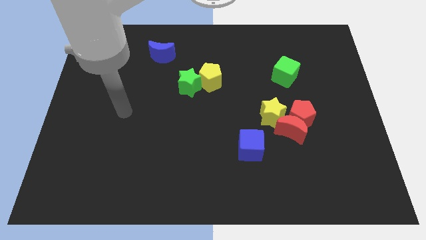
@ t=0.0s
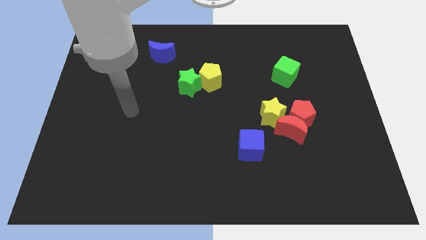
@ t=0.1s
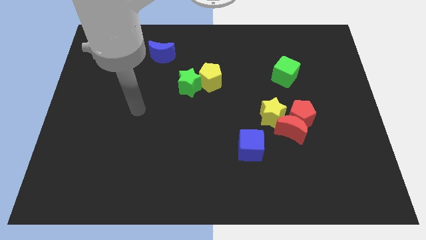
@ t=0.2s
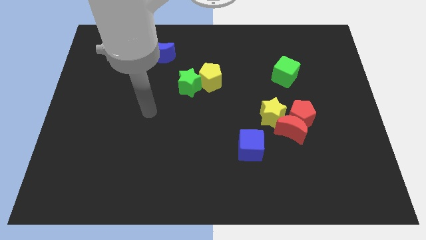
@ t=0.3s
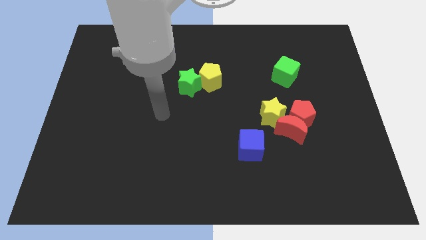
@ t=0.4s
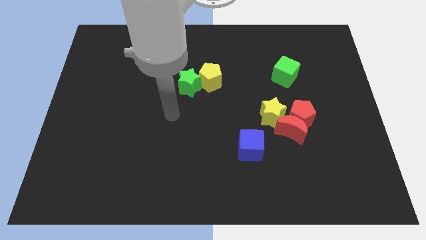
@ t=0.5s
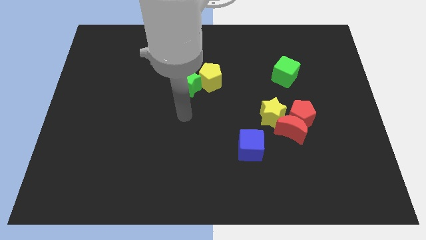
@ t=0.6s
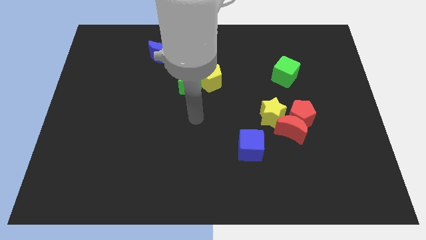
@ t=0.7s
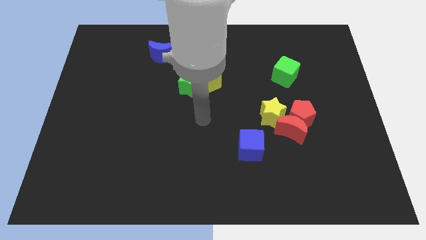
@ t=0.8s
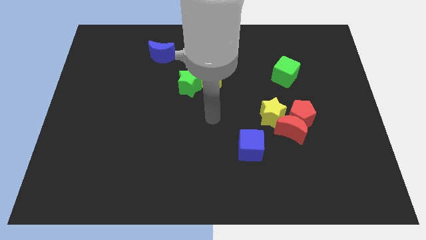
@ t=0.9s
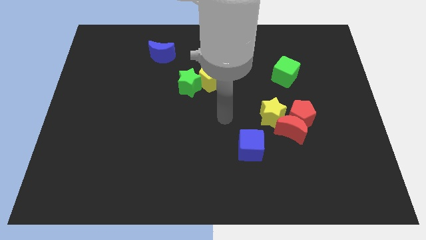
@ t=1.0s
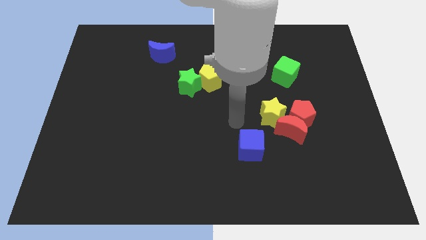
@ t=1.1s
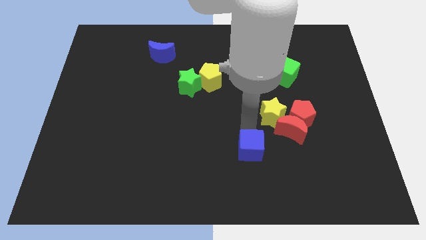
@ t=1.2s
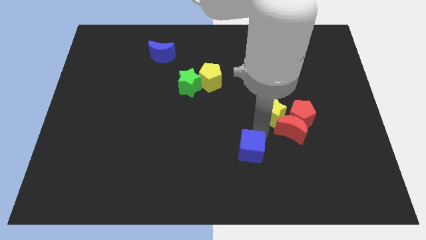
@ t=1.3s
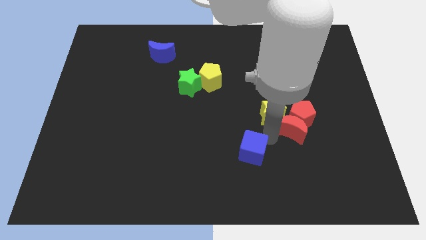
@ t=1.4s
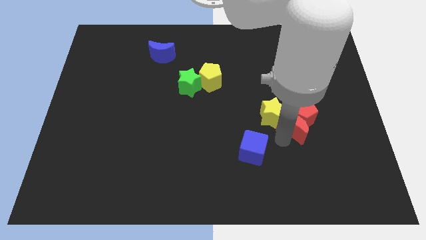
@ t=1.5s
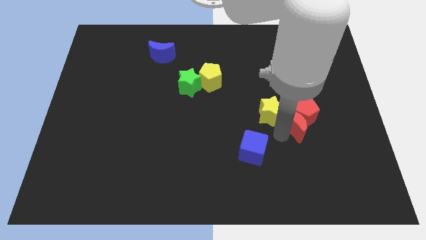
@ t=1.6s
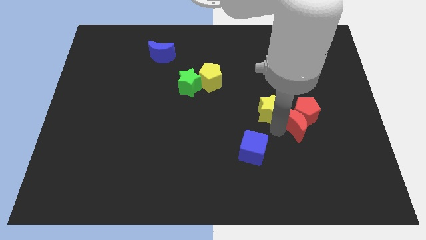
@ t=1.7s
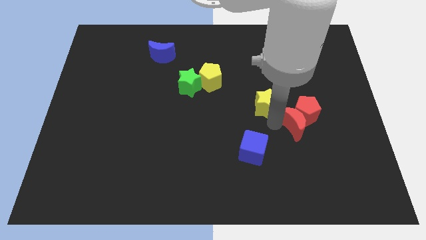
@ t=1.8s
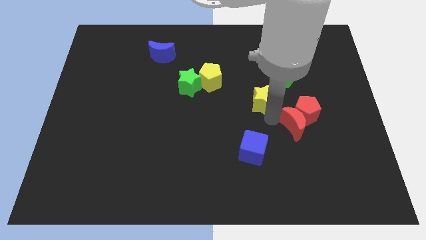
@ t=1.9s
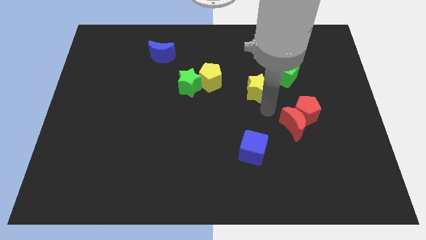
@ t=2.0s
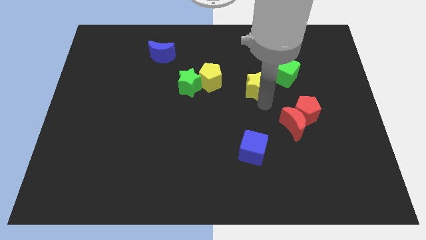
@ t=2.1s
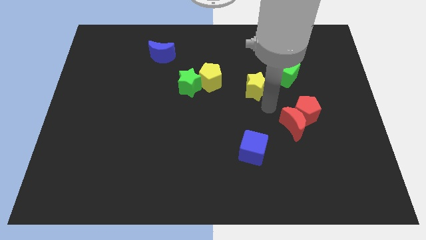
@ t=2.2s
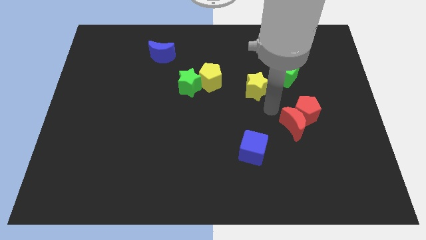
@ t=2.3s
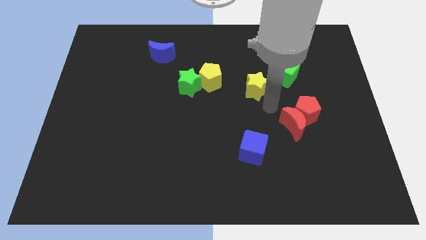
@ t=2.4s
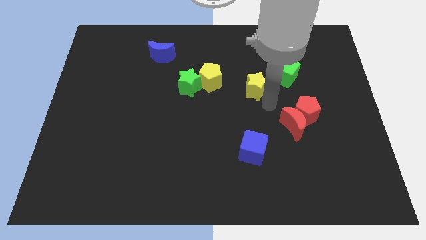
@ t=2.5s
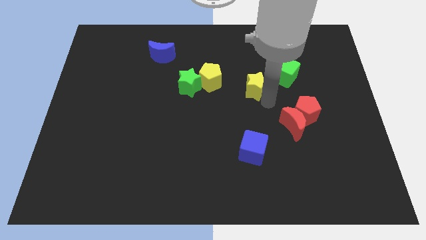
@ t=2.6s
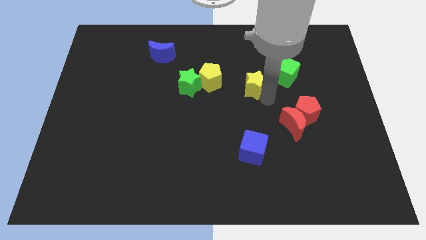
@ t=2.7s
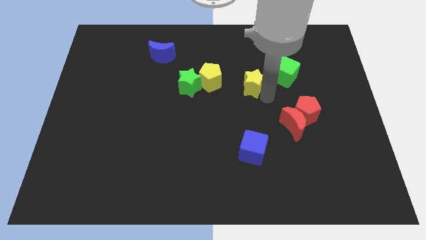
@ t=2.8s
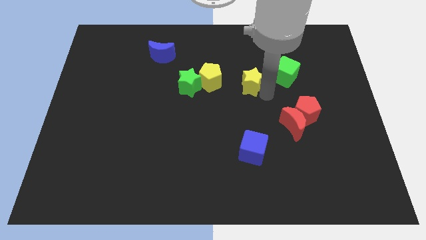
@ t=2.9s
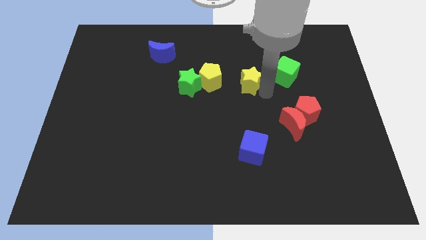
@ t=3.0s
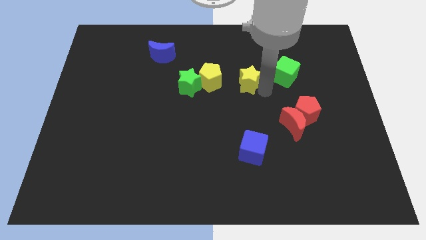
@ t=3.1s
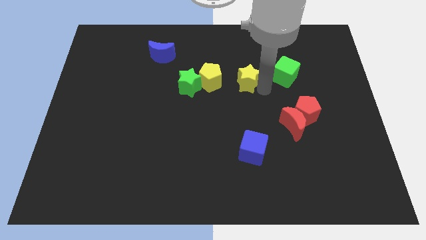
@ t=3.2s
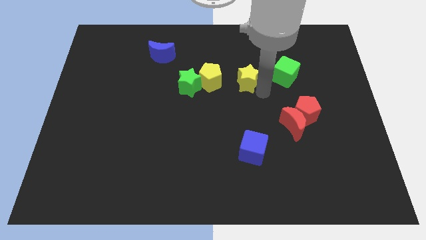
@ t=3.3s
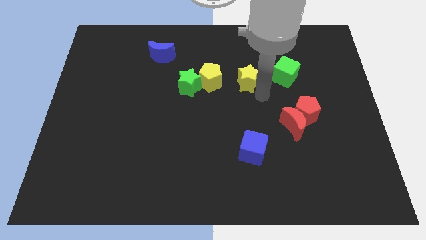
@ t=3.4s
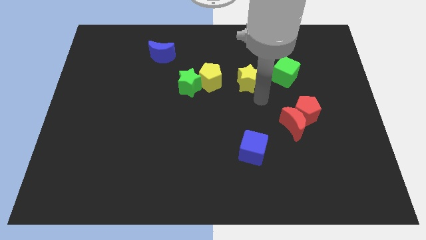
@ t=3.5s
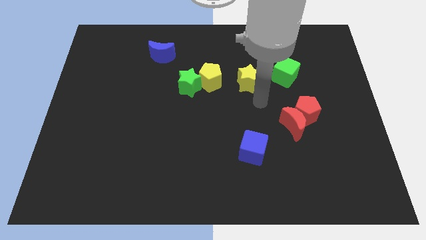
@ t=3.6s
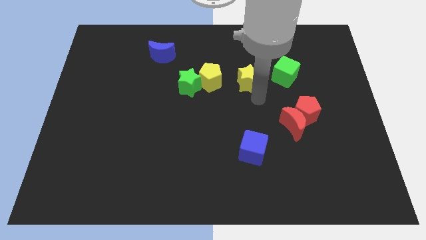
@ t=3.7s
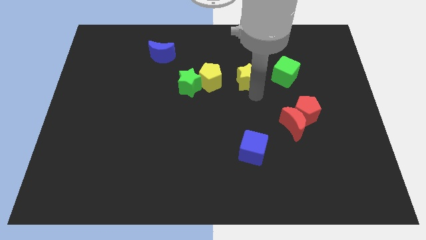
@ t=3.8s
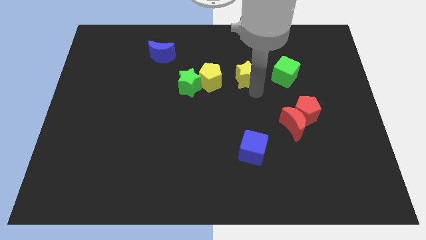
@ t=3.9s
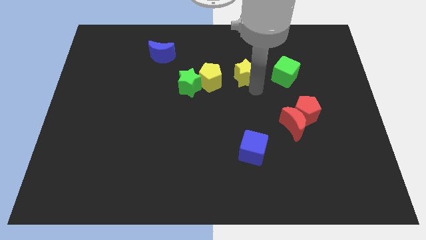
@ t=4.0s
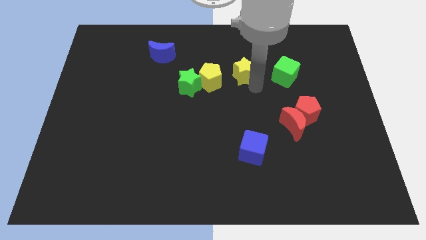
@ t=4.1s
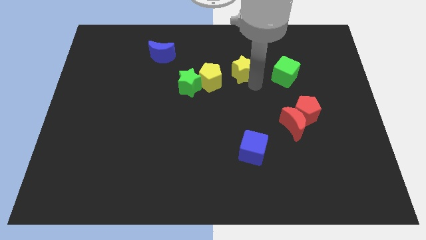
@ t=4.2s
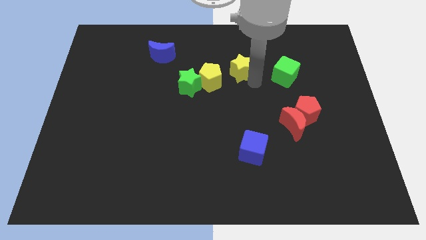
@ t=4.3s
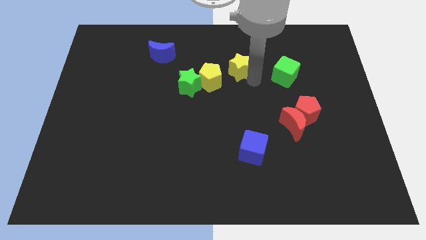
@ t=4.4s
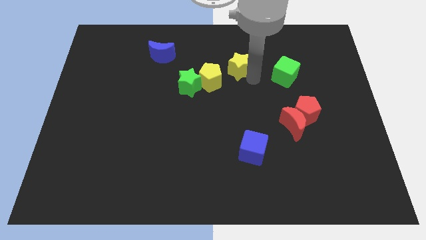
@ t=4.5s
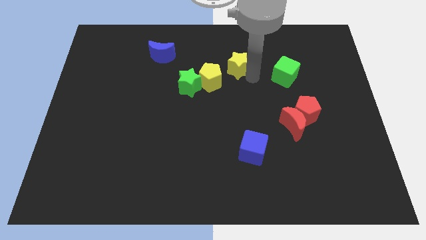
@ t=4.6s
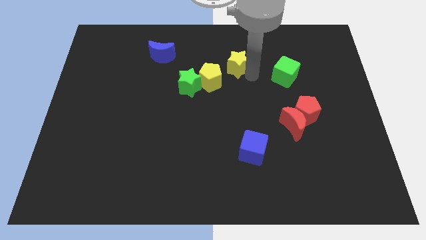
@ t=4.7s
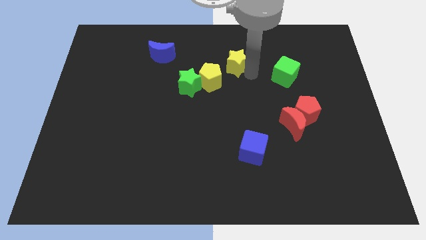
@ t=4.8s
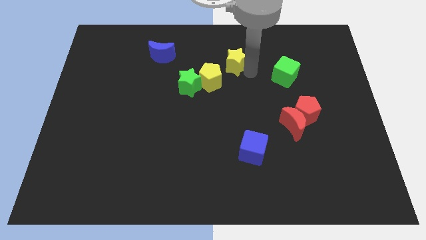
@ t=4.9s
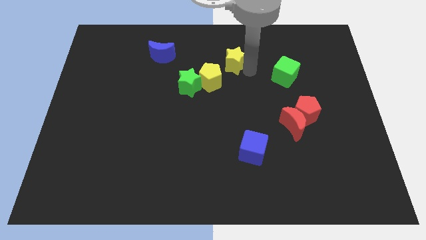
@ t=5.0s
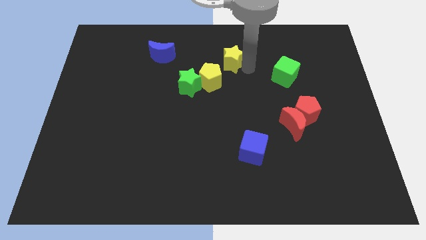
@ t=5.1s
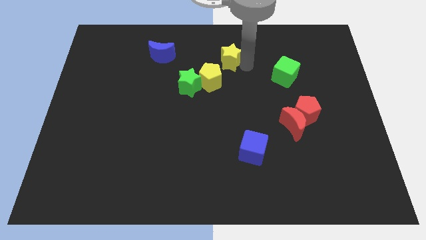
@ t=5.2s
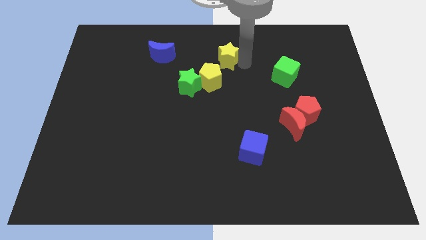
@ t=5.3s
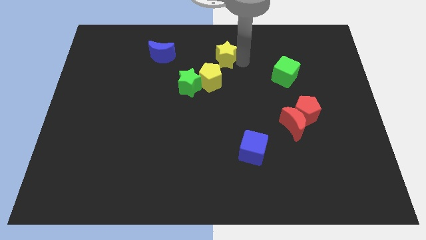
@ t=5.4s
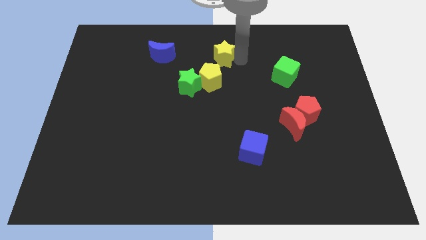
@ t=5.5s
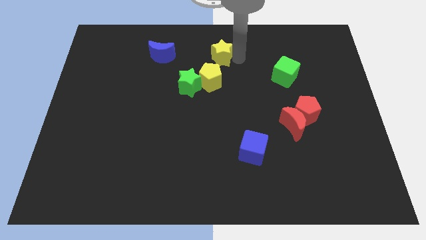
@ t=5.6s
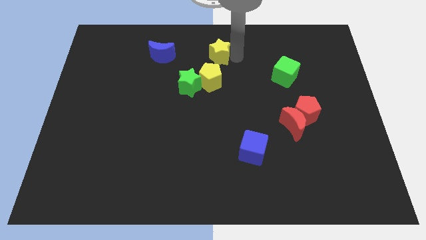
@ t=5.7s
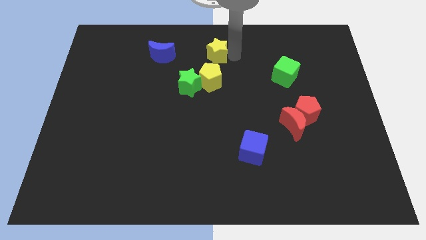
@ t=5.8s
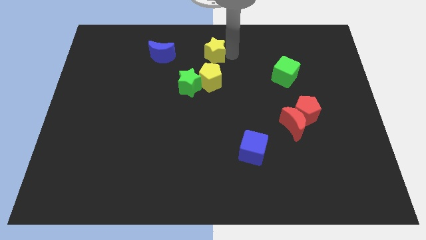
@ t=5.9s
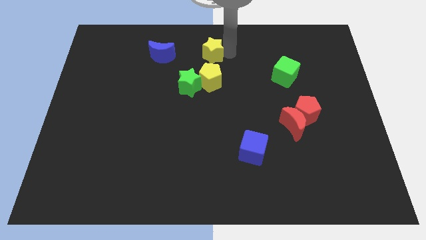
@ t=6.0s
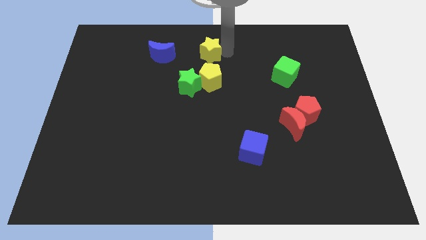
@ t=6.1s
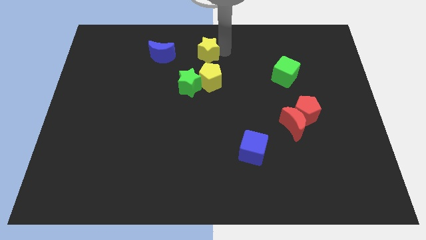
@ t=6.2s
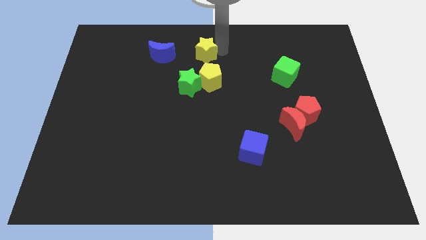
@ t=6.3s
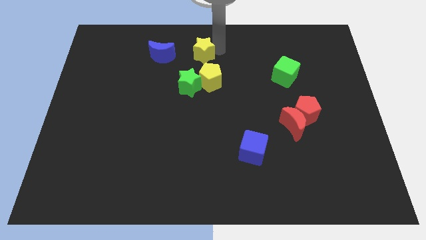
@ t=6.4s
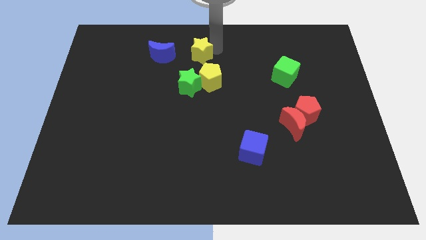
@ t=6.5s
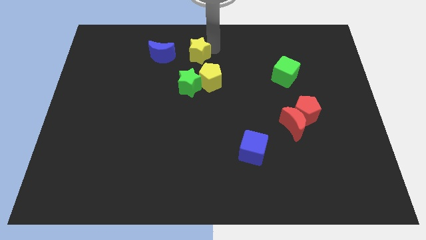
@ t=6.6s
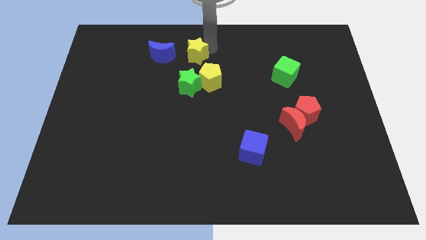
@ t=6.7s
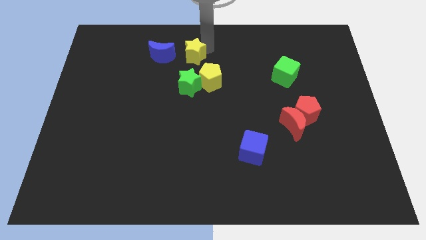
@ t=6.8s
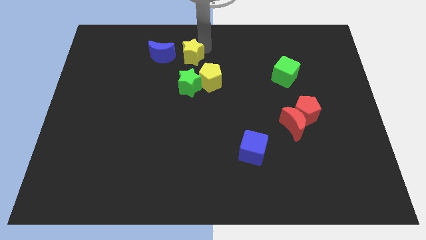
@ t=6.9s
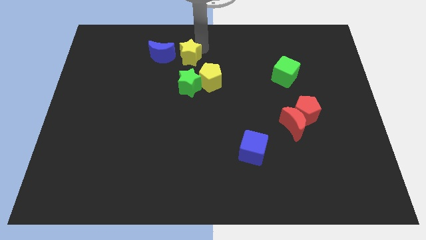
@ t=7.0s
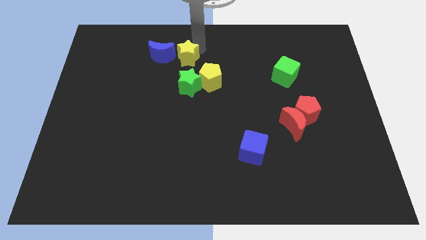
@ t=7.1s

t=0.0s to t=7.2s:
push the yellow star diagonally down and to the right of the blue moon
